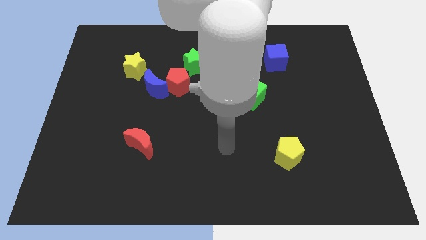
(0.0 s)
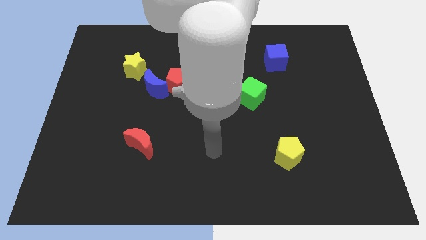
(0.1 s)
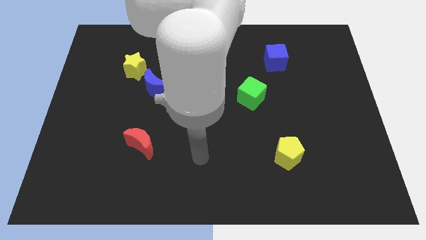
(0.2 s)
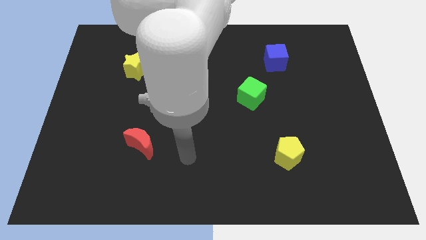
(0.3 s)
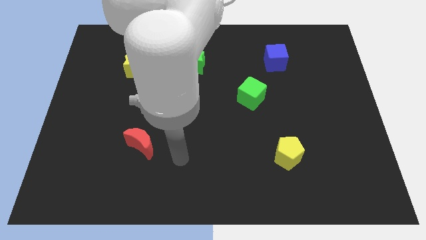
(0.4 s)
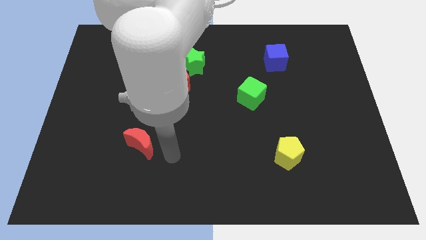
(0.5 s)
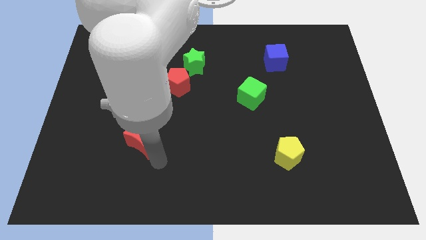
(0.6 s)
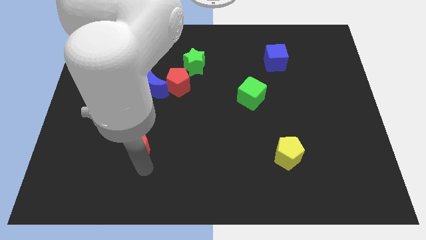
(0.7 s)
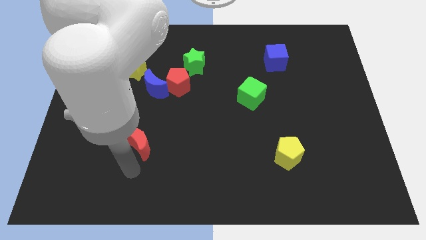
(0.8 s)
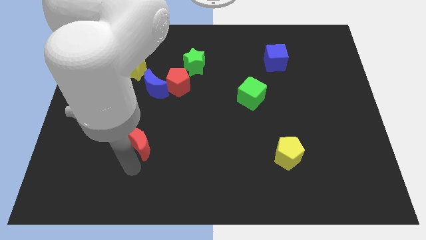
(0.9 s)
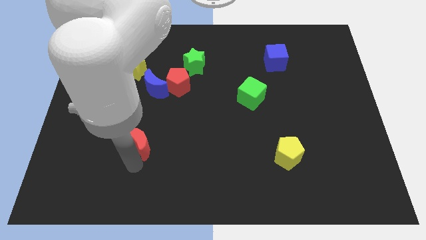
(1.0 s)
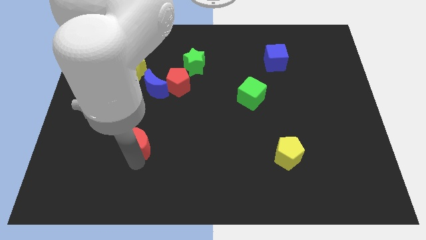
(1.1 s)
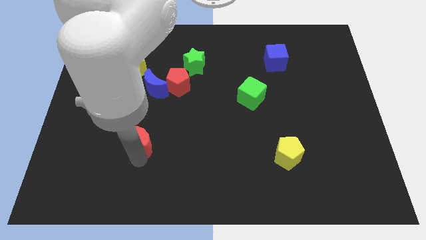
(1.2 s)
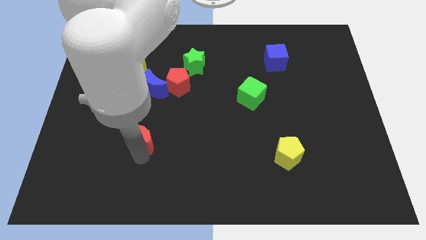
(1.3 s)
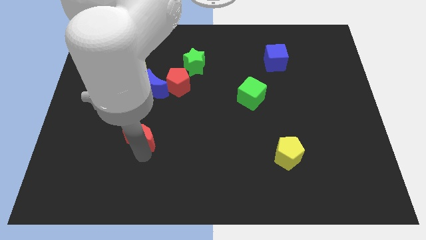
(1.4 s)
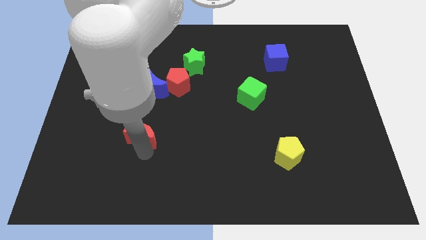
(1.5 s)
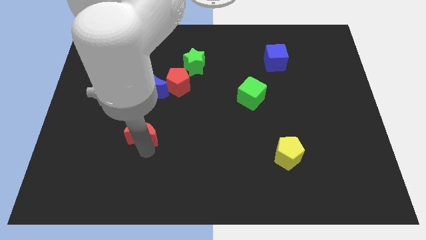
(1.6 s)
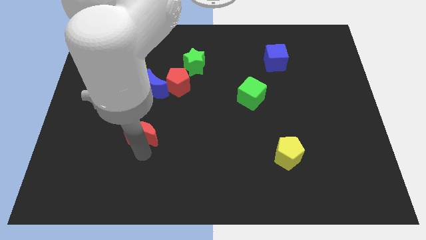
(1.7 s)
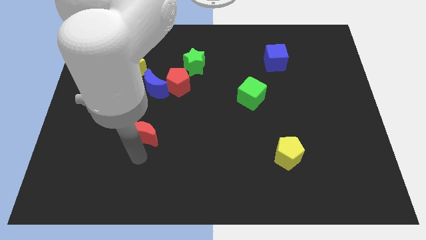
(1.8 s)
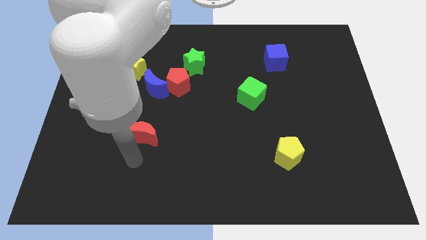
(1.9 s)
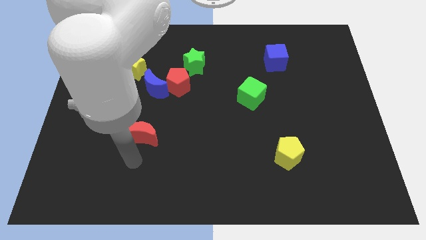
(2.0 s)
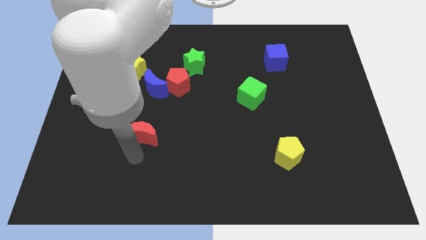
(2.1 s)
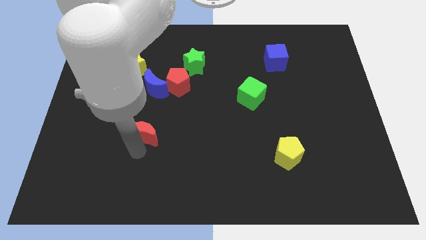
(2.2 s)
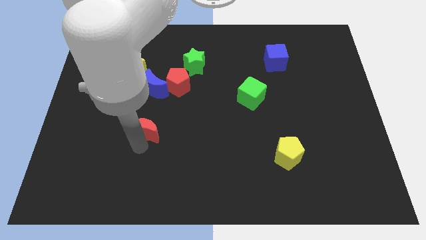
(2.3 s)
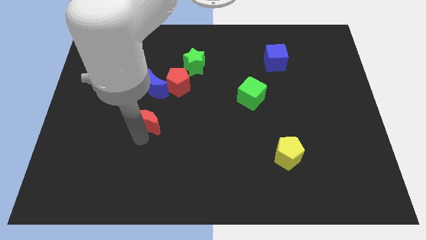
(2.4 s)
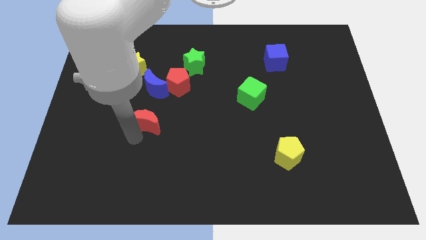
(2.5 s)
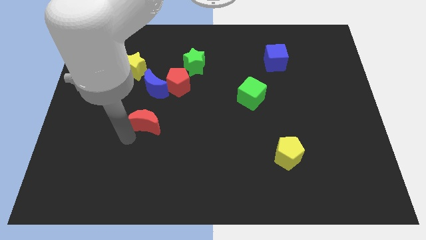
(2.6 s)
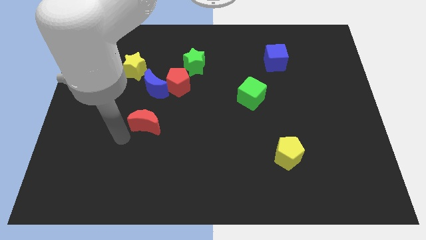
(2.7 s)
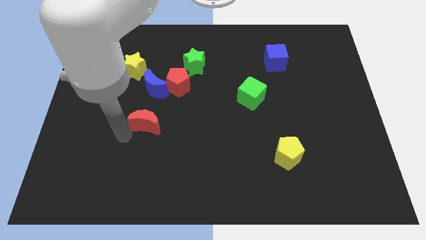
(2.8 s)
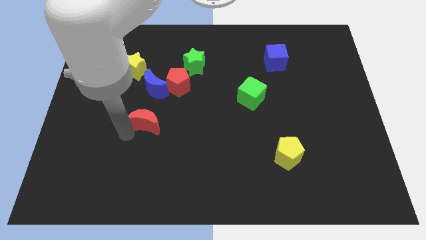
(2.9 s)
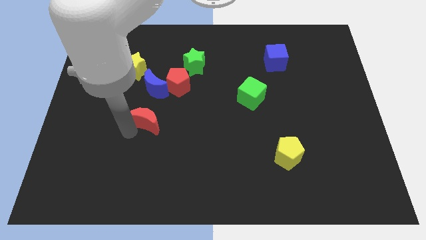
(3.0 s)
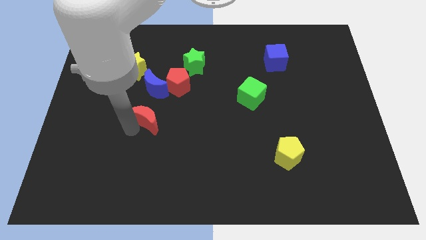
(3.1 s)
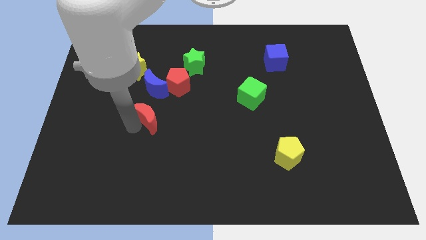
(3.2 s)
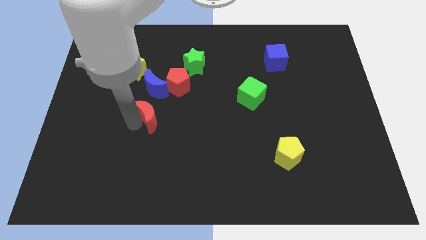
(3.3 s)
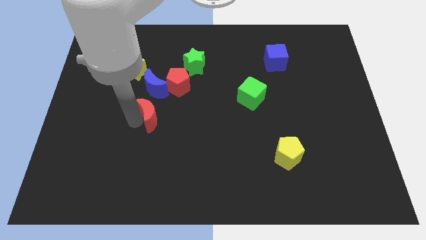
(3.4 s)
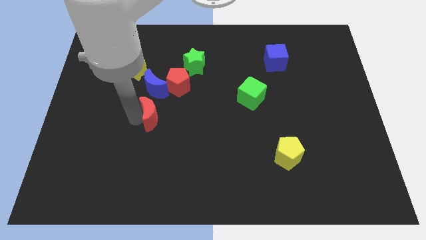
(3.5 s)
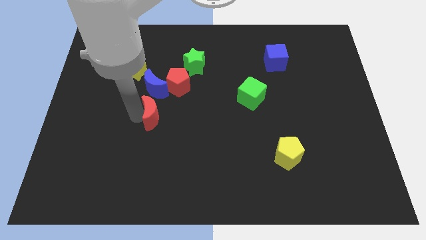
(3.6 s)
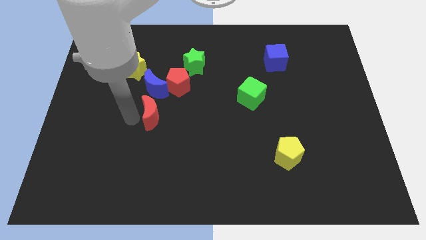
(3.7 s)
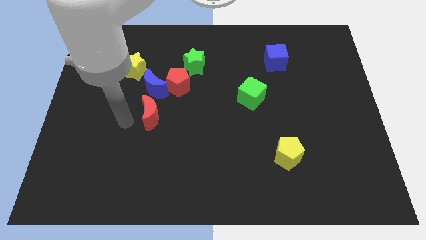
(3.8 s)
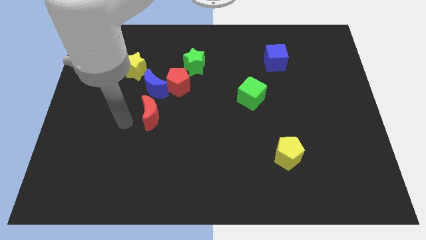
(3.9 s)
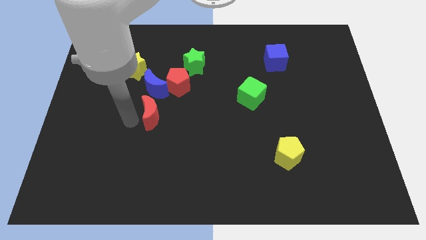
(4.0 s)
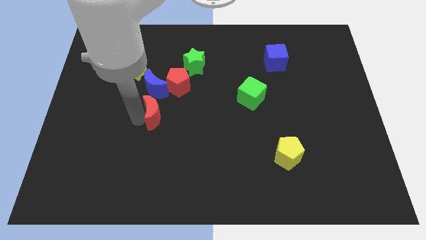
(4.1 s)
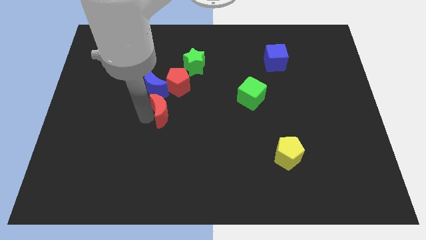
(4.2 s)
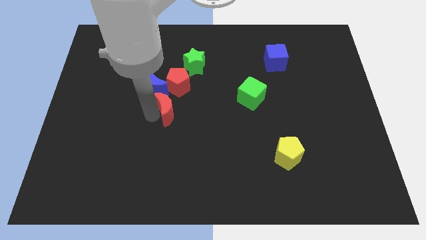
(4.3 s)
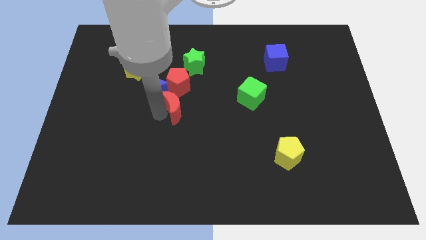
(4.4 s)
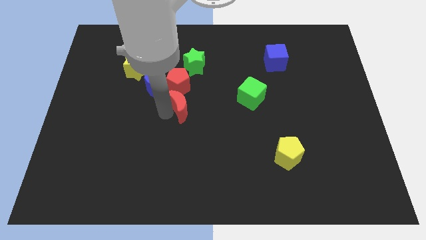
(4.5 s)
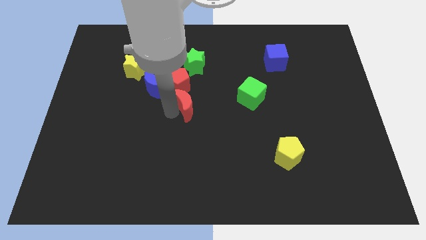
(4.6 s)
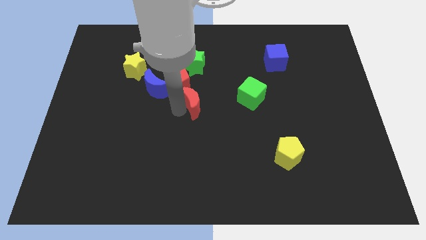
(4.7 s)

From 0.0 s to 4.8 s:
push the red moon left of the green cube

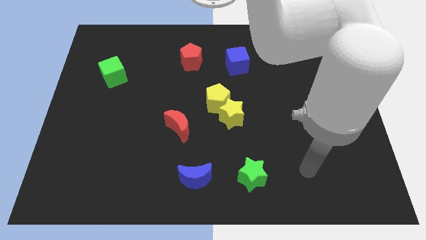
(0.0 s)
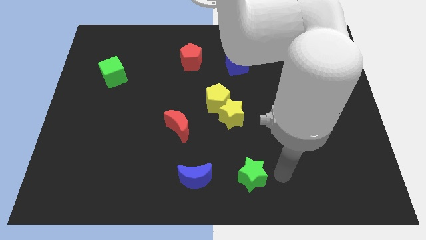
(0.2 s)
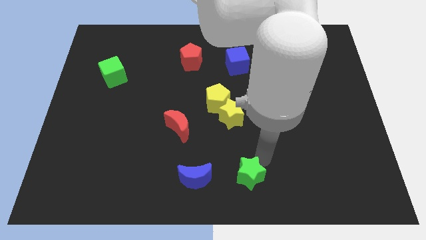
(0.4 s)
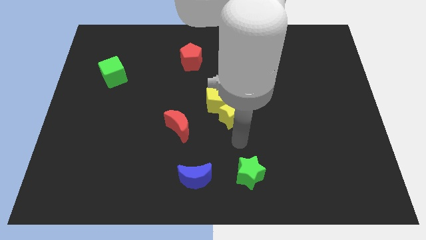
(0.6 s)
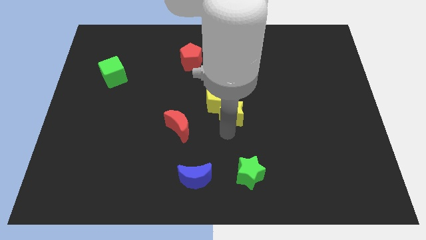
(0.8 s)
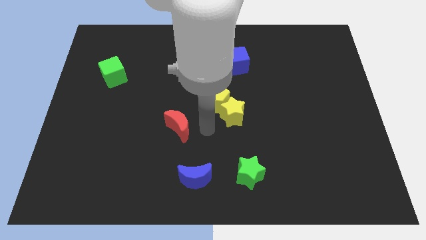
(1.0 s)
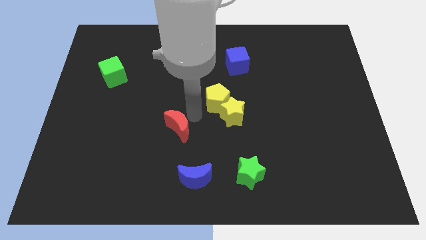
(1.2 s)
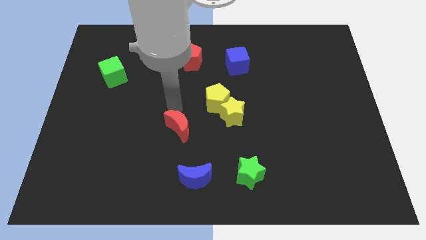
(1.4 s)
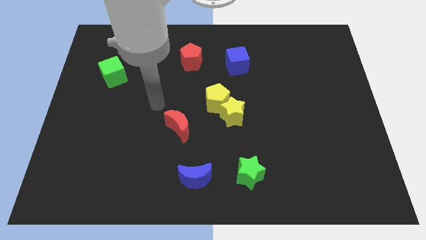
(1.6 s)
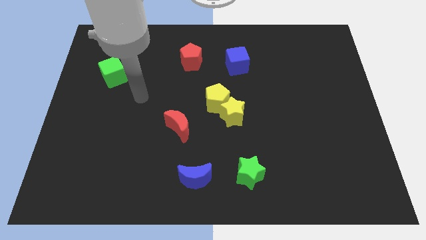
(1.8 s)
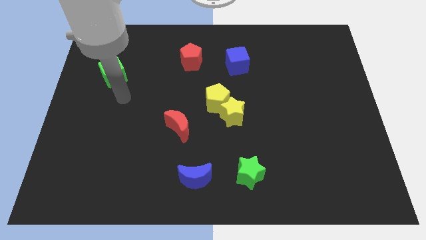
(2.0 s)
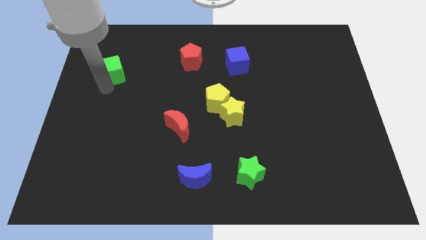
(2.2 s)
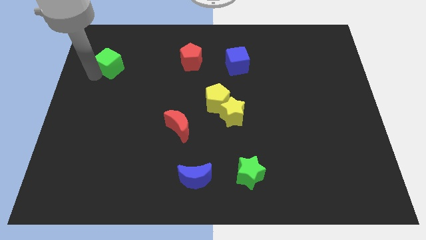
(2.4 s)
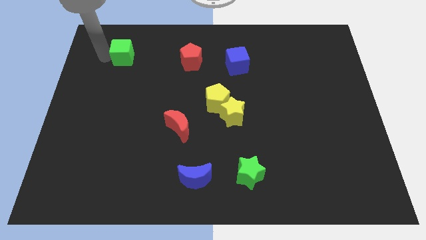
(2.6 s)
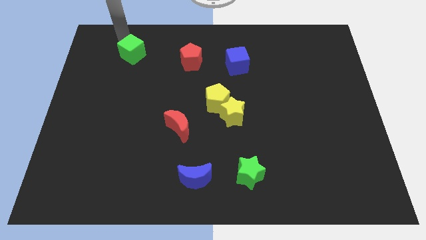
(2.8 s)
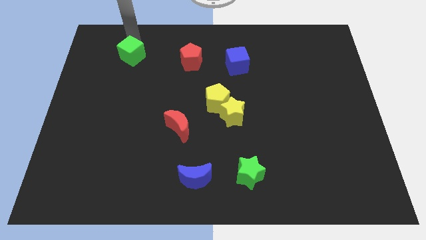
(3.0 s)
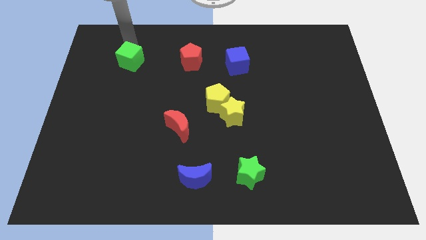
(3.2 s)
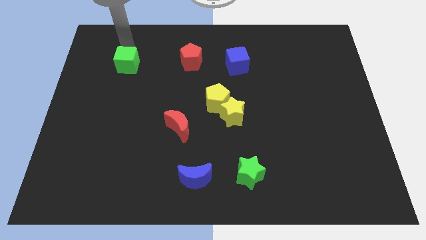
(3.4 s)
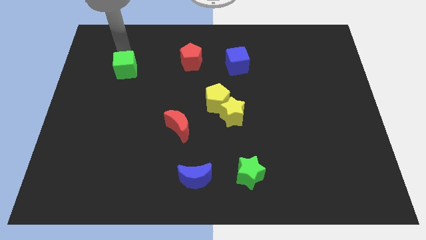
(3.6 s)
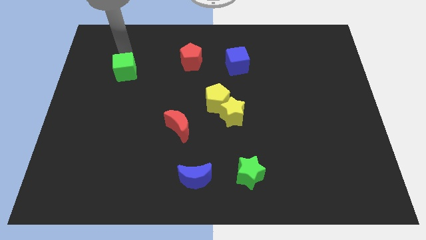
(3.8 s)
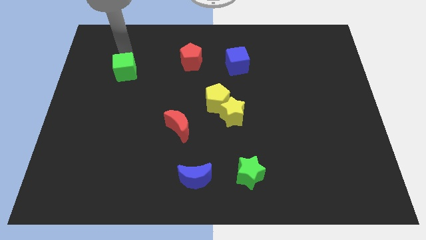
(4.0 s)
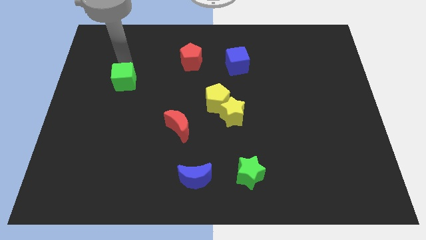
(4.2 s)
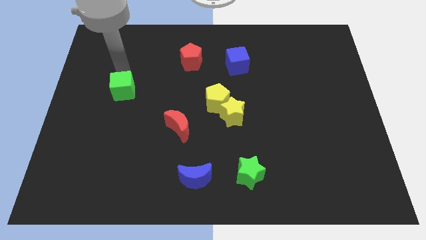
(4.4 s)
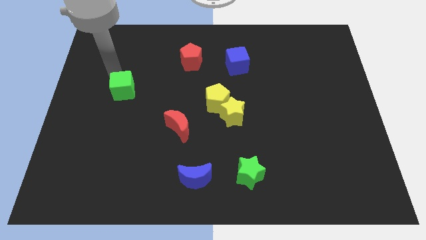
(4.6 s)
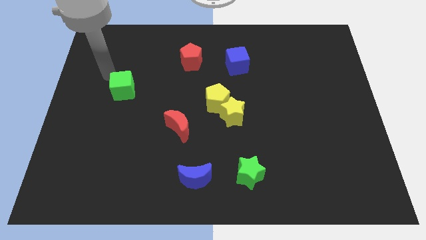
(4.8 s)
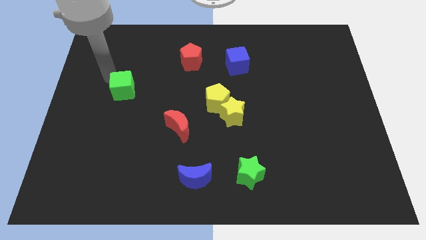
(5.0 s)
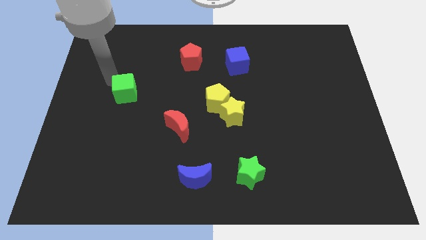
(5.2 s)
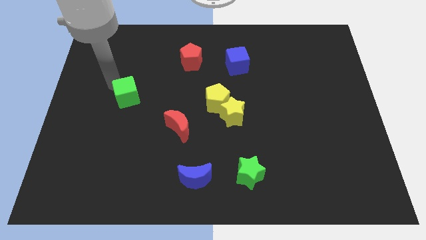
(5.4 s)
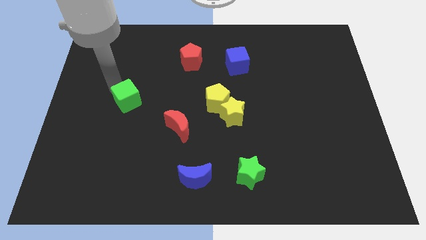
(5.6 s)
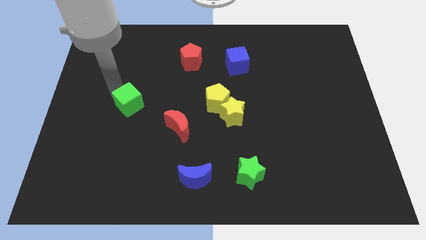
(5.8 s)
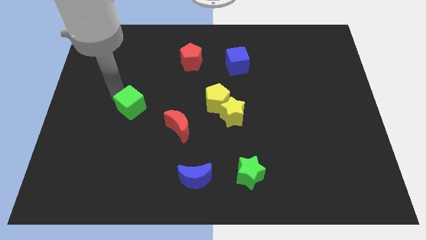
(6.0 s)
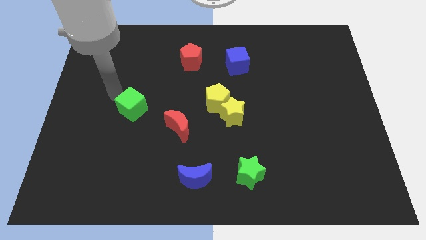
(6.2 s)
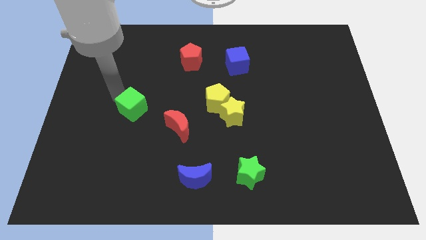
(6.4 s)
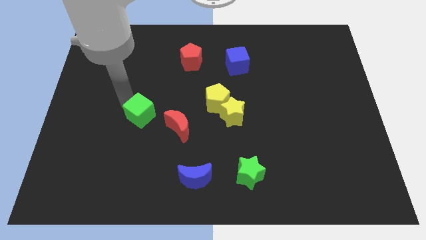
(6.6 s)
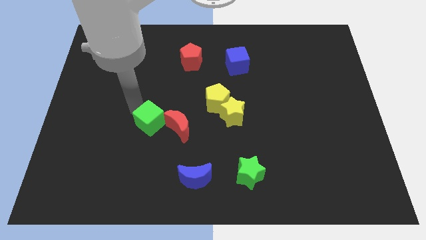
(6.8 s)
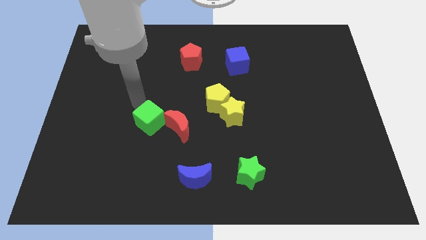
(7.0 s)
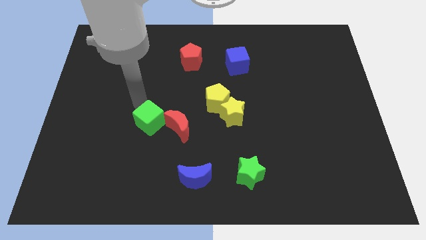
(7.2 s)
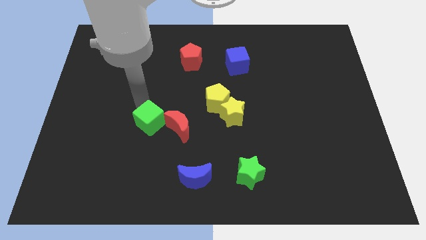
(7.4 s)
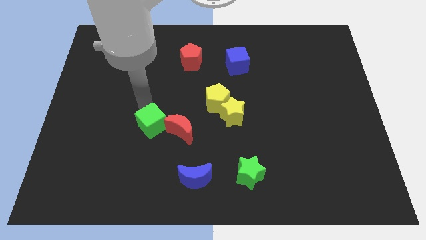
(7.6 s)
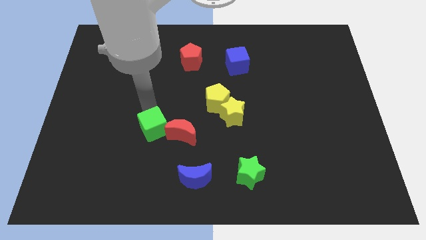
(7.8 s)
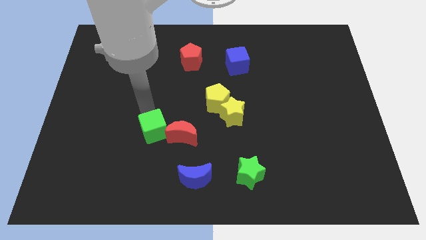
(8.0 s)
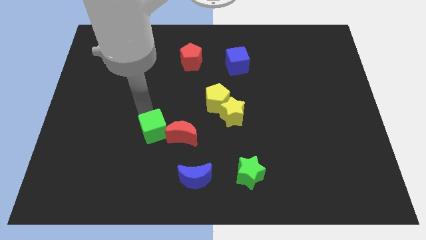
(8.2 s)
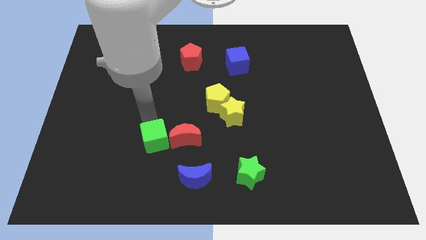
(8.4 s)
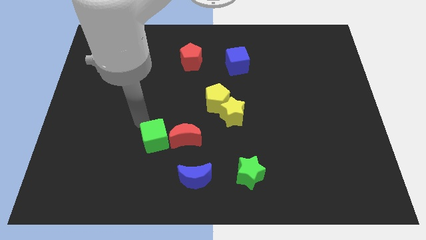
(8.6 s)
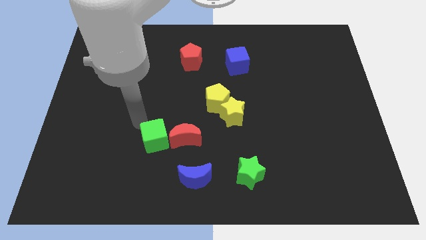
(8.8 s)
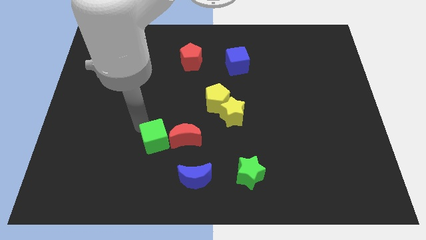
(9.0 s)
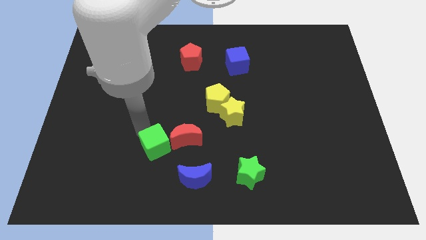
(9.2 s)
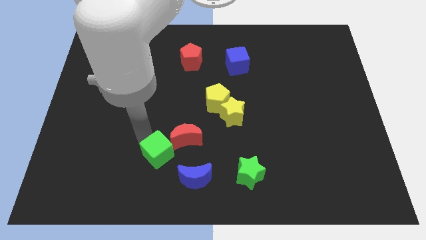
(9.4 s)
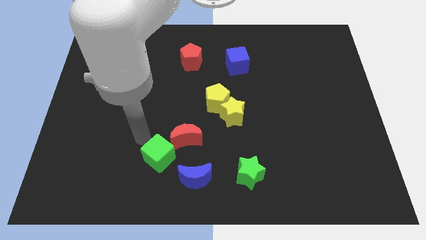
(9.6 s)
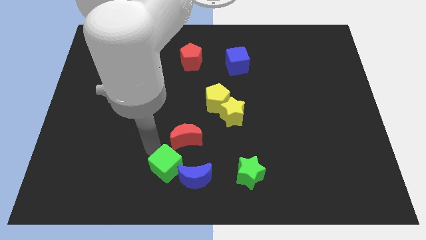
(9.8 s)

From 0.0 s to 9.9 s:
push the green cube to the bottom side of the red moon
